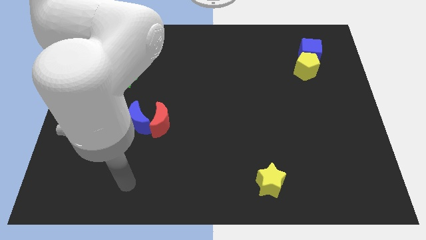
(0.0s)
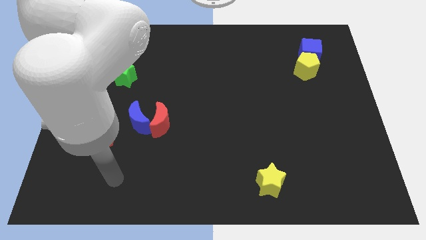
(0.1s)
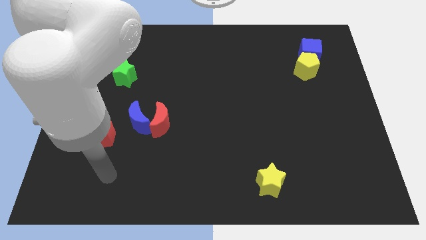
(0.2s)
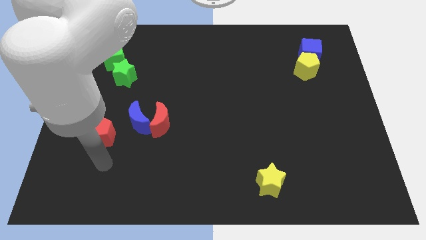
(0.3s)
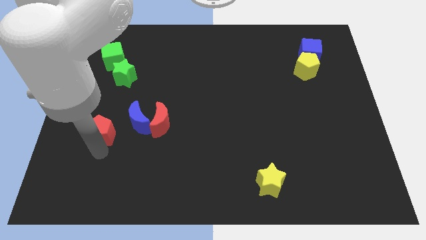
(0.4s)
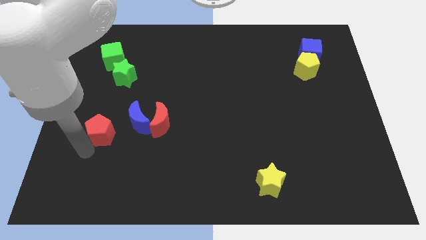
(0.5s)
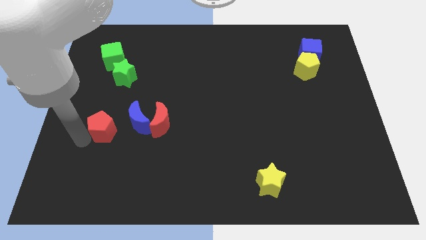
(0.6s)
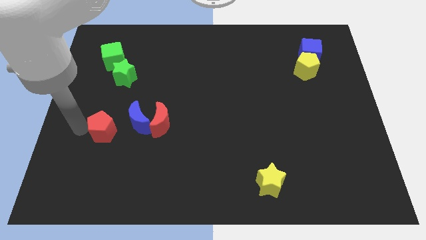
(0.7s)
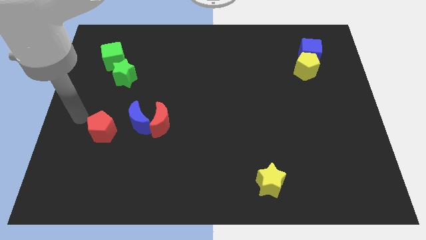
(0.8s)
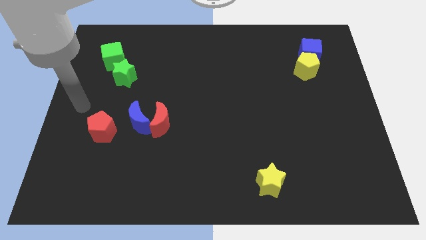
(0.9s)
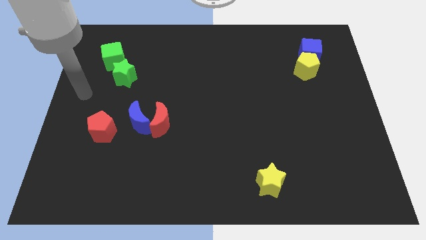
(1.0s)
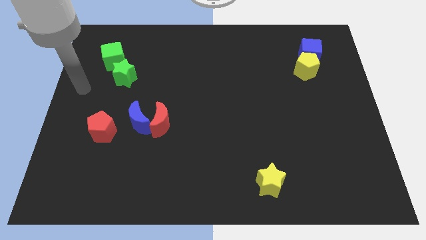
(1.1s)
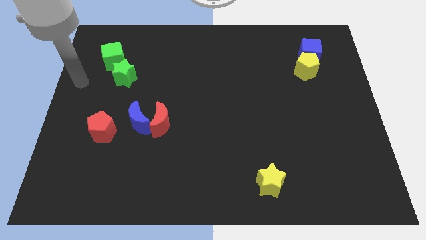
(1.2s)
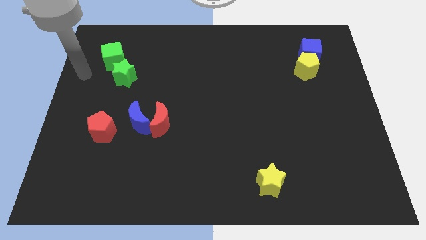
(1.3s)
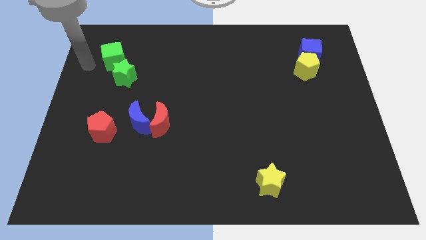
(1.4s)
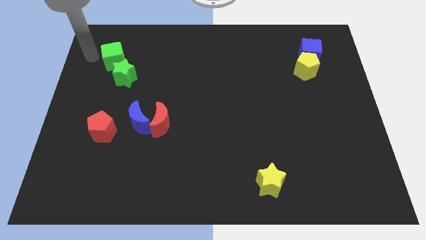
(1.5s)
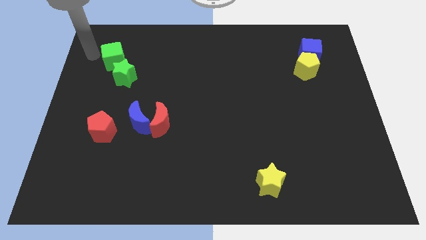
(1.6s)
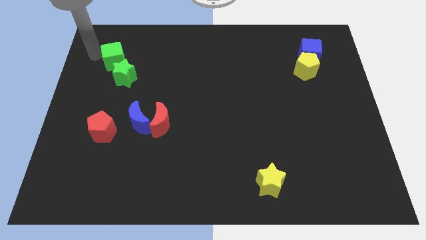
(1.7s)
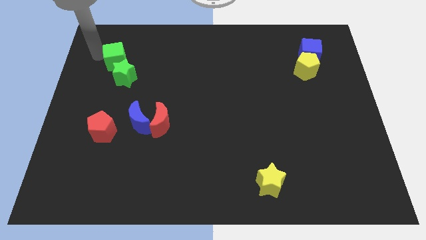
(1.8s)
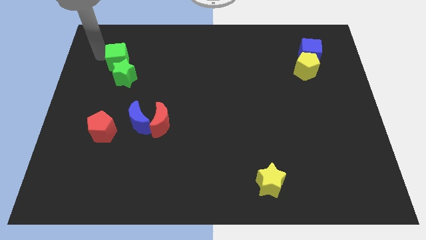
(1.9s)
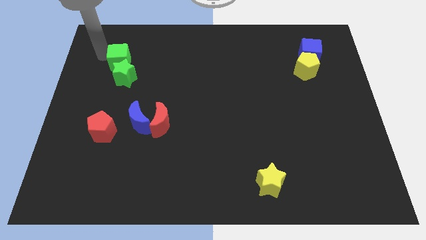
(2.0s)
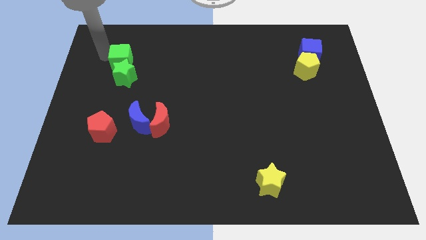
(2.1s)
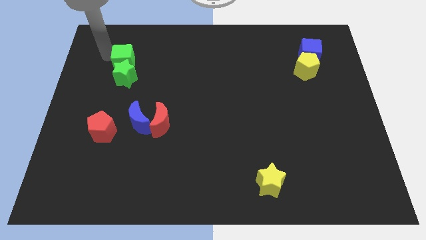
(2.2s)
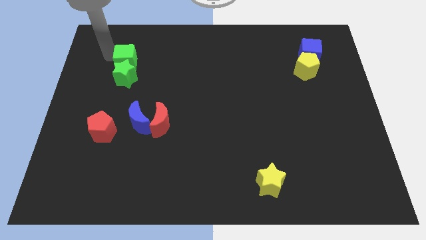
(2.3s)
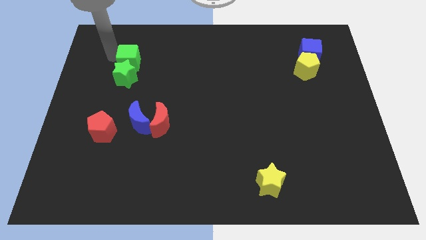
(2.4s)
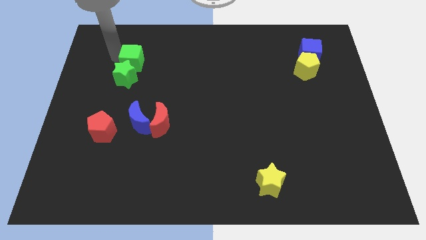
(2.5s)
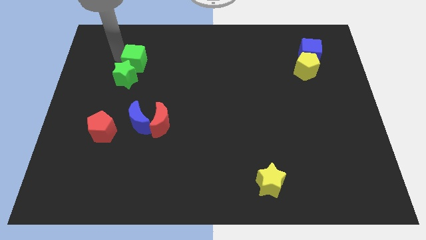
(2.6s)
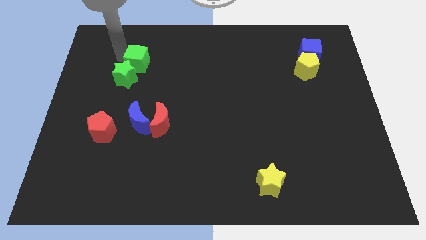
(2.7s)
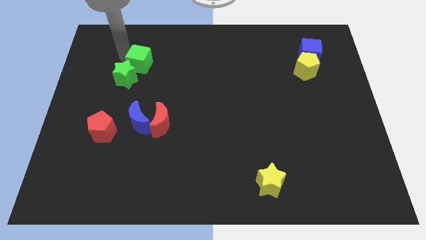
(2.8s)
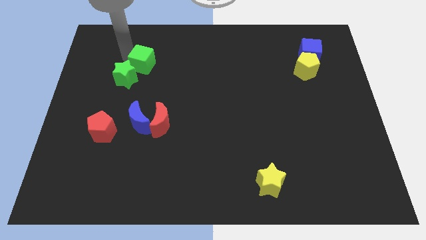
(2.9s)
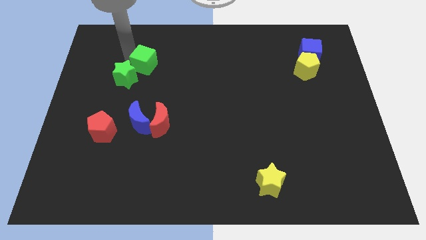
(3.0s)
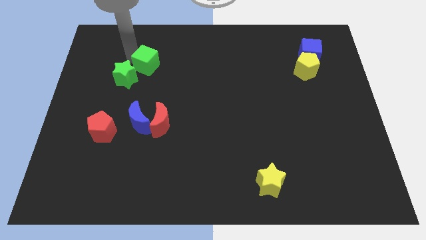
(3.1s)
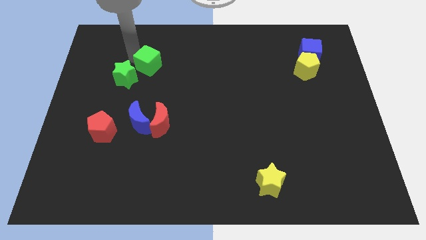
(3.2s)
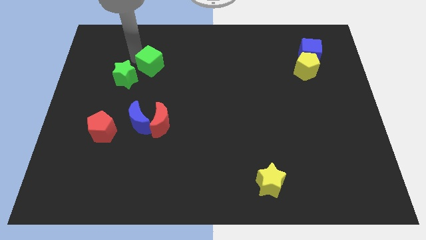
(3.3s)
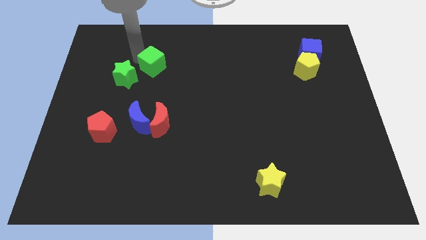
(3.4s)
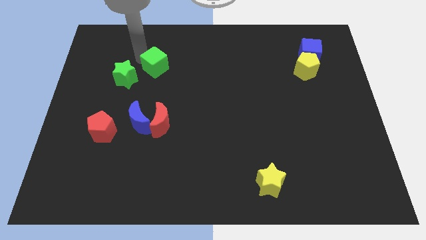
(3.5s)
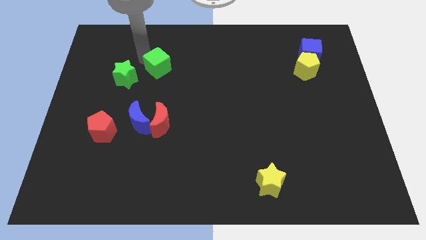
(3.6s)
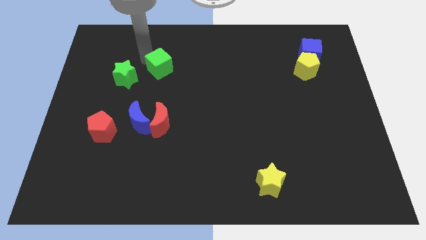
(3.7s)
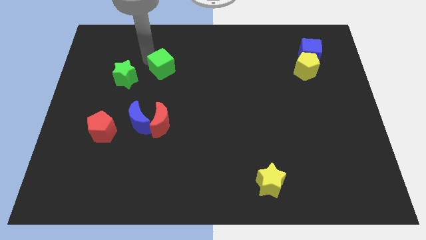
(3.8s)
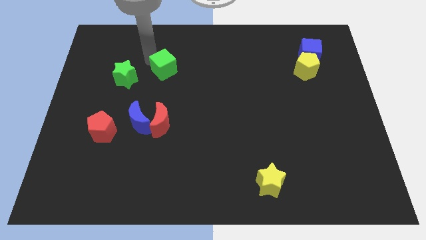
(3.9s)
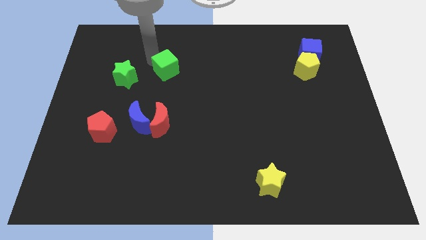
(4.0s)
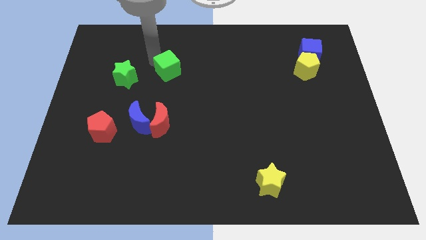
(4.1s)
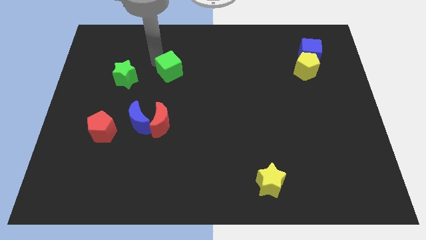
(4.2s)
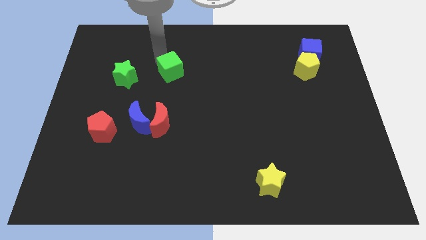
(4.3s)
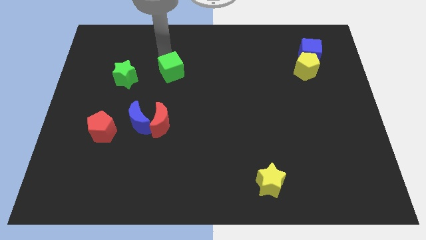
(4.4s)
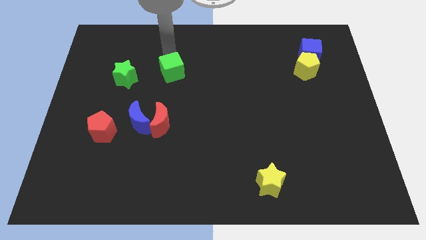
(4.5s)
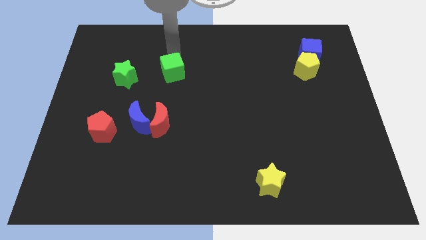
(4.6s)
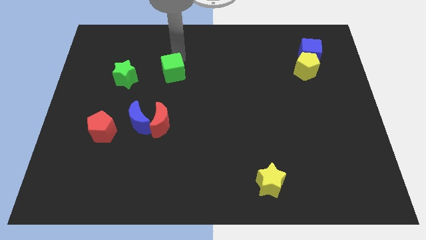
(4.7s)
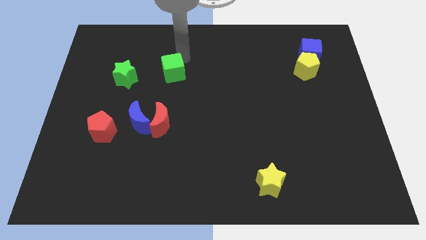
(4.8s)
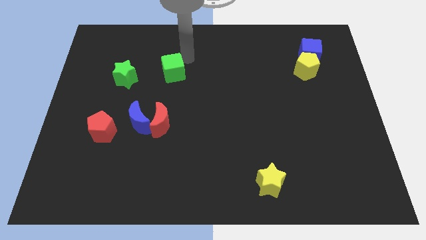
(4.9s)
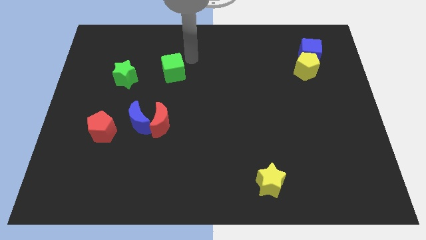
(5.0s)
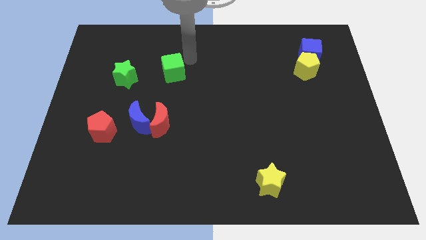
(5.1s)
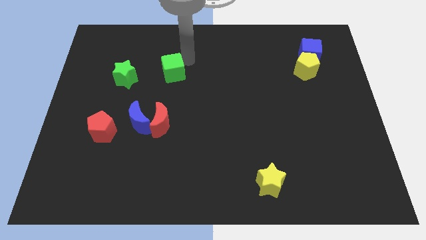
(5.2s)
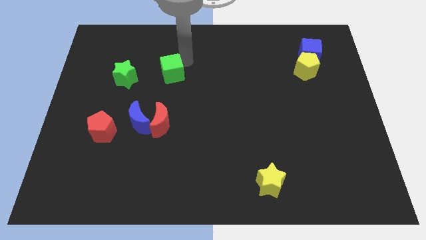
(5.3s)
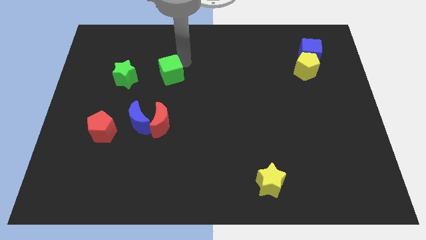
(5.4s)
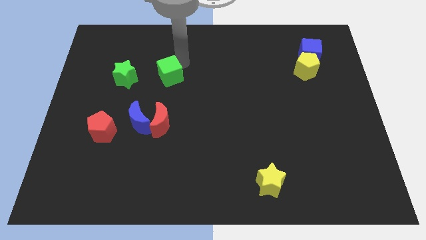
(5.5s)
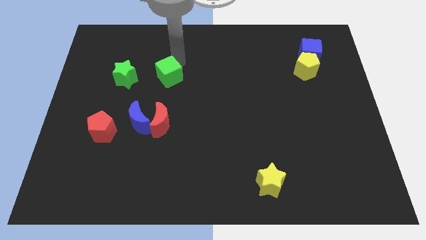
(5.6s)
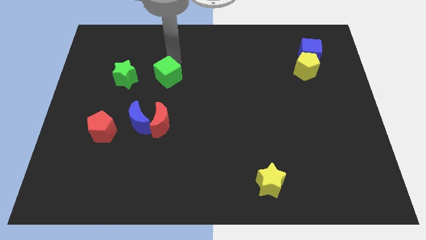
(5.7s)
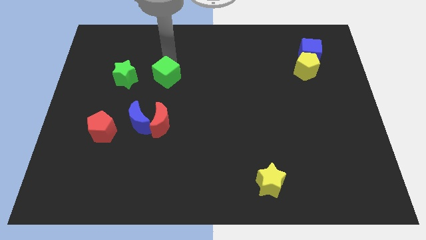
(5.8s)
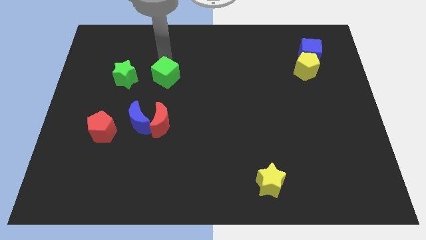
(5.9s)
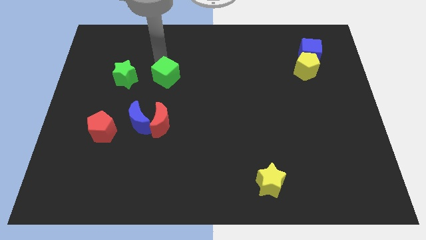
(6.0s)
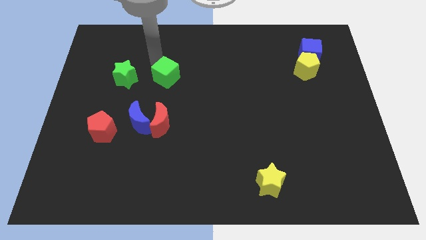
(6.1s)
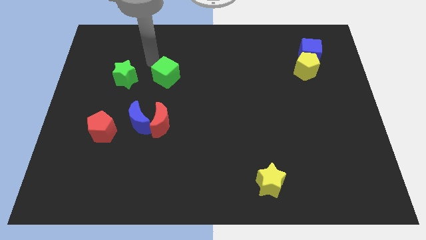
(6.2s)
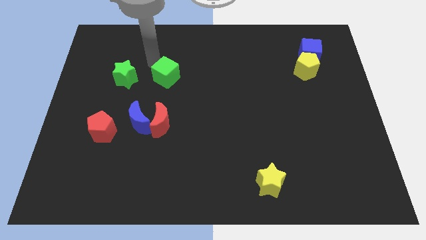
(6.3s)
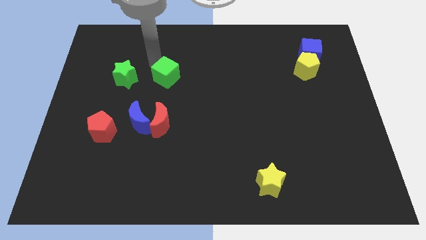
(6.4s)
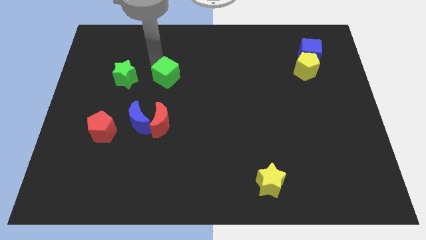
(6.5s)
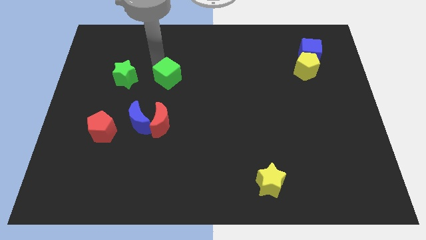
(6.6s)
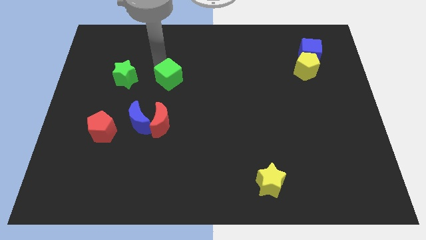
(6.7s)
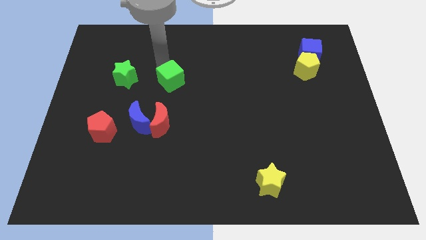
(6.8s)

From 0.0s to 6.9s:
push the green cube to the middle of the board
